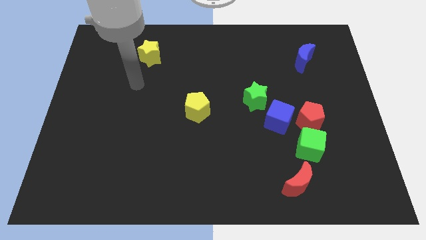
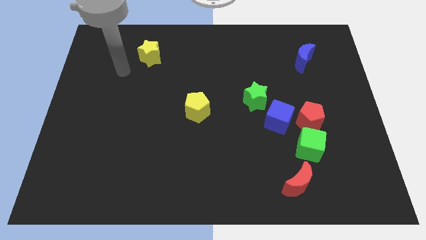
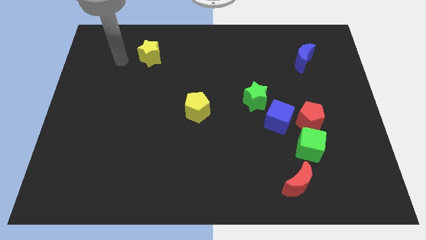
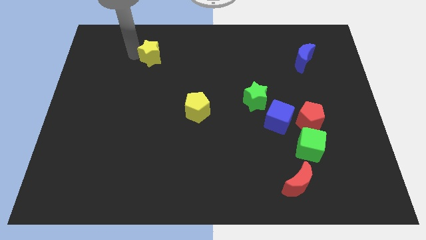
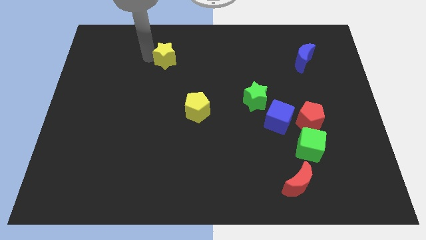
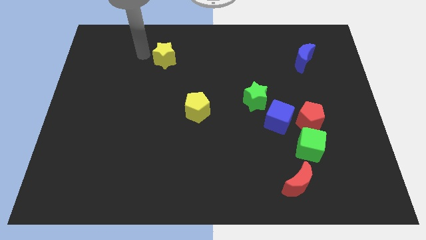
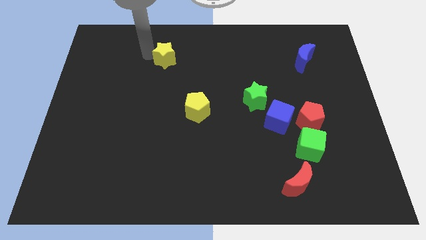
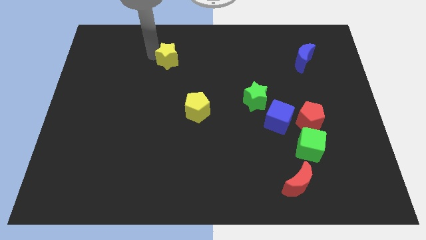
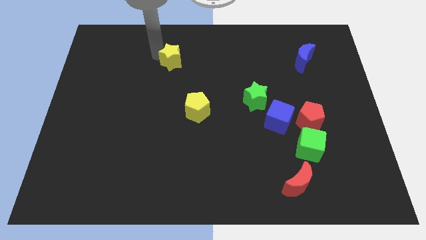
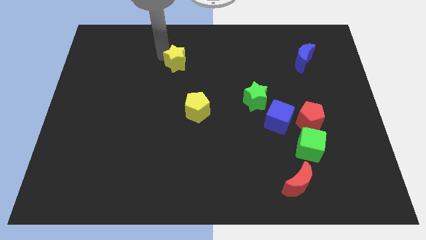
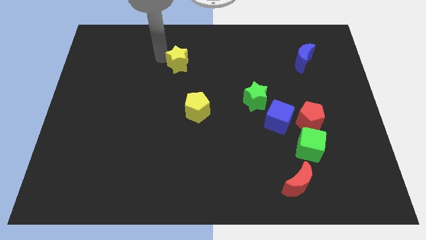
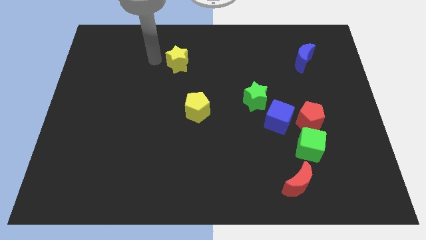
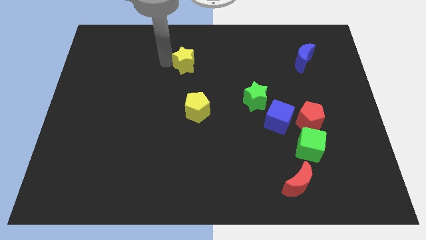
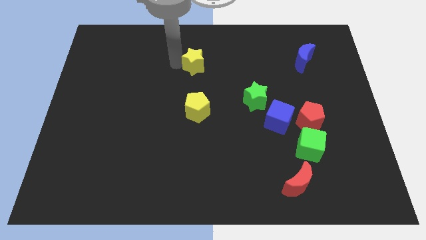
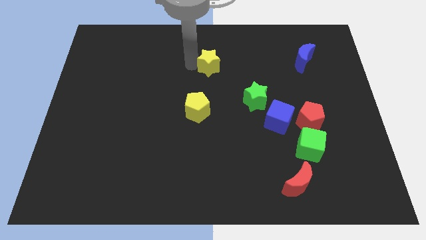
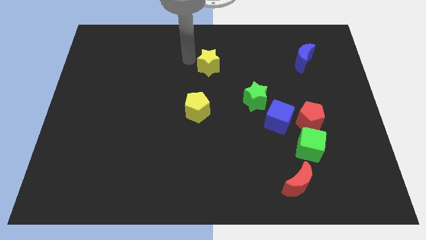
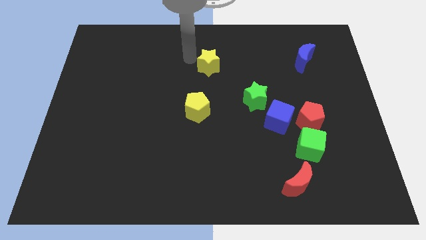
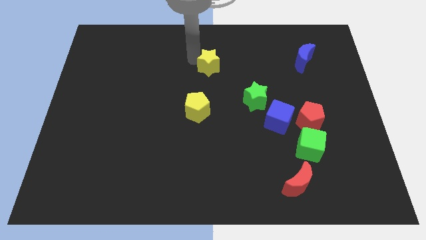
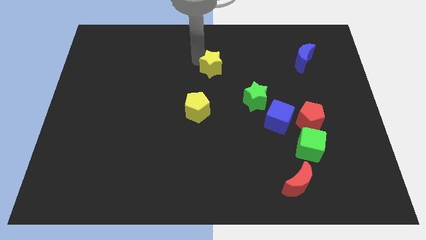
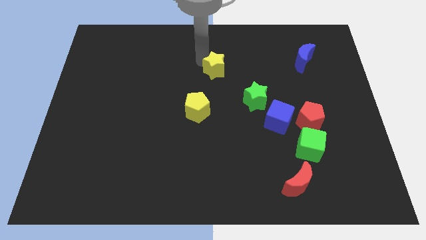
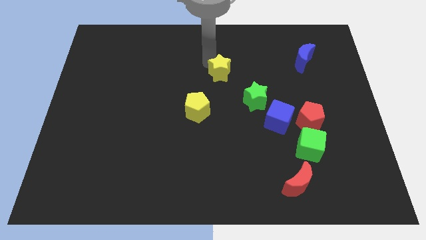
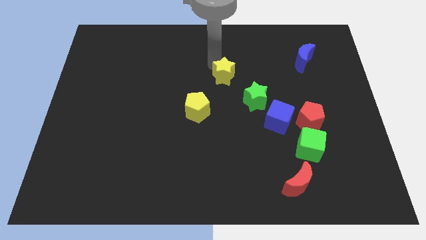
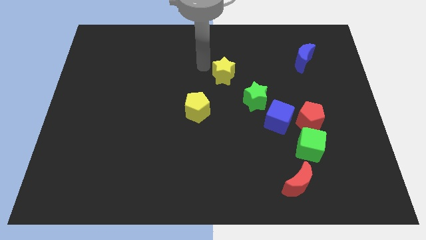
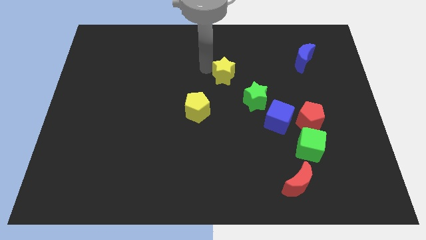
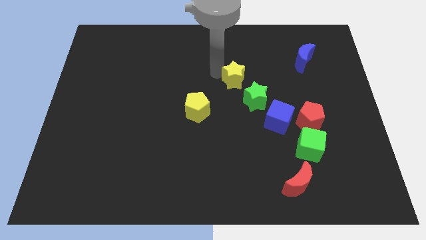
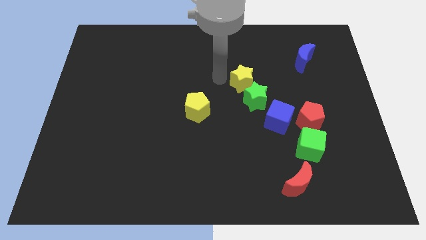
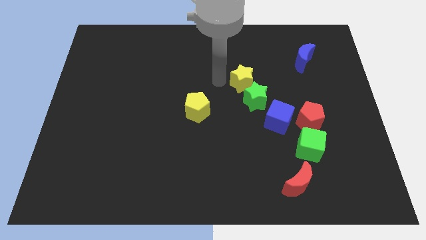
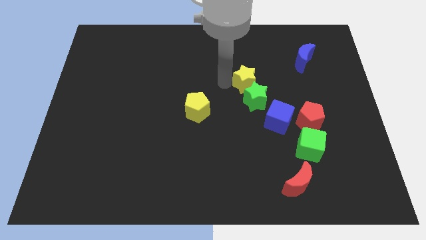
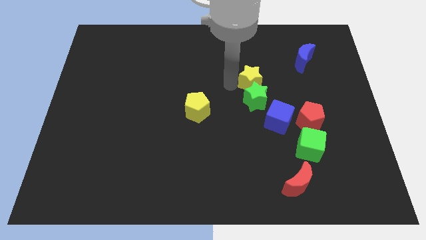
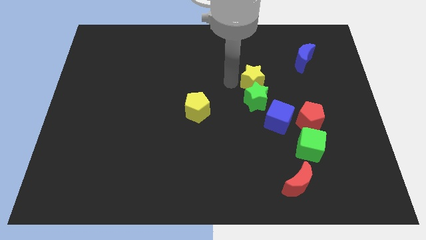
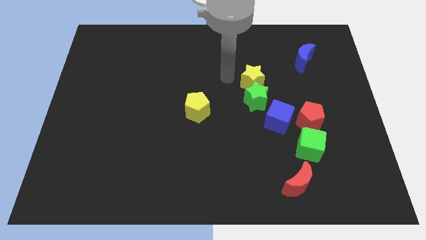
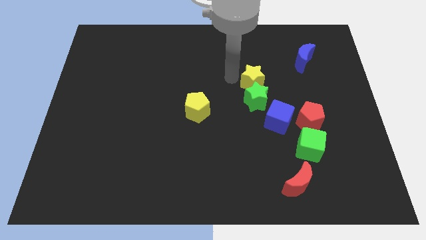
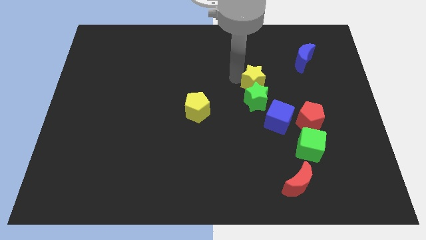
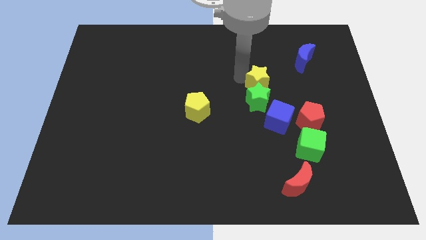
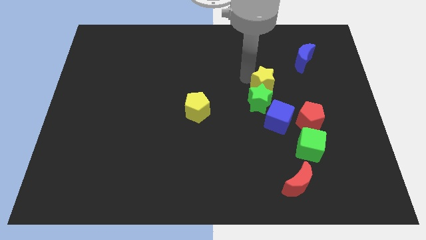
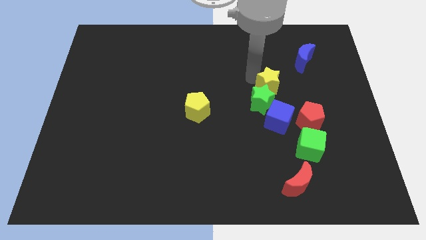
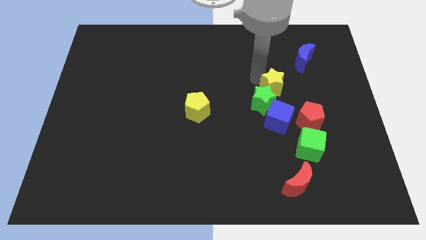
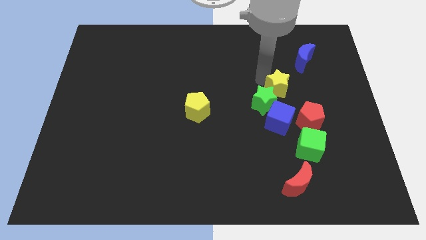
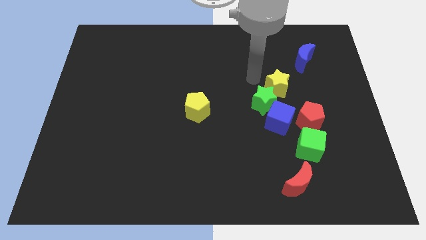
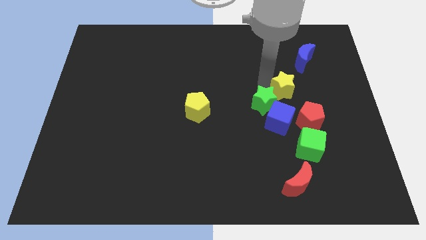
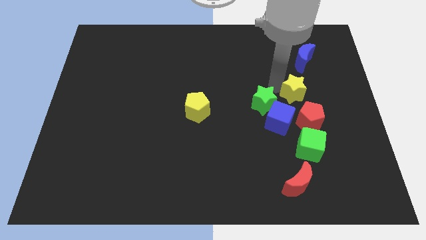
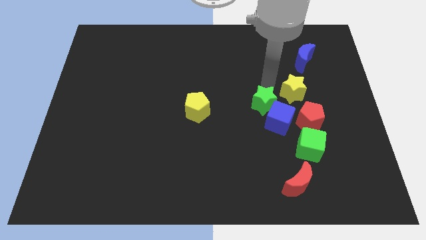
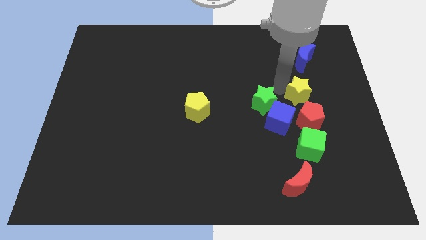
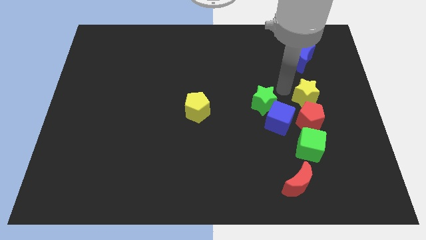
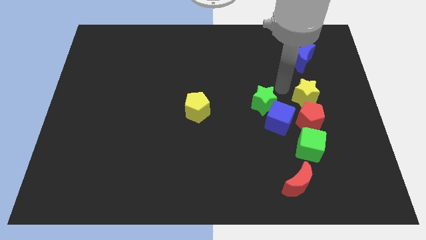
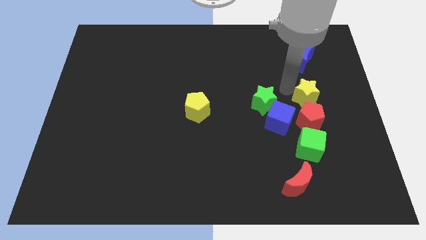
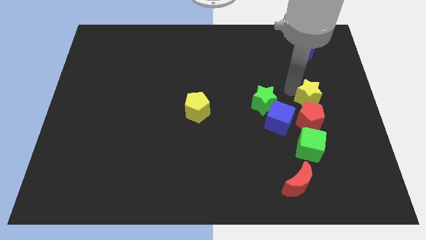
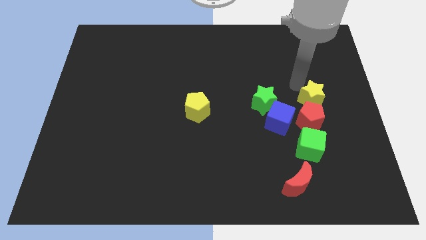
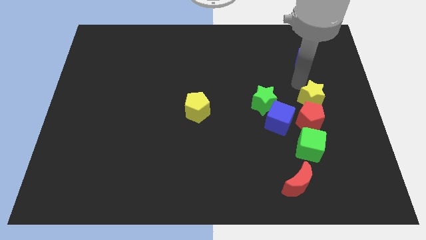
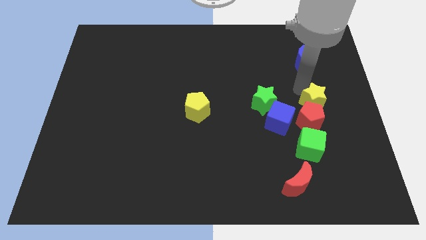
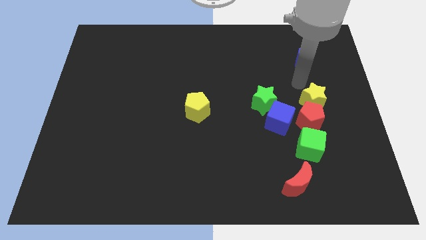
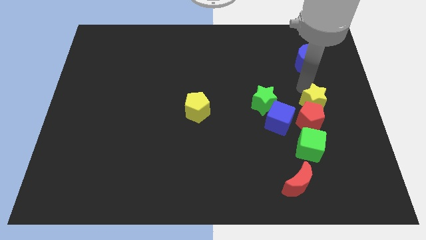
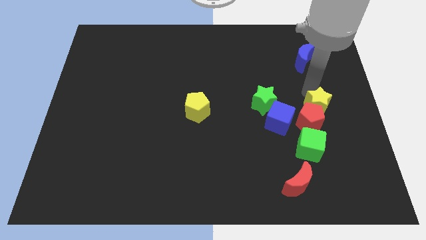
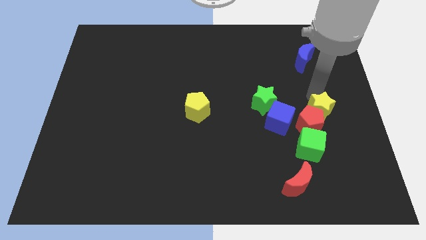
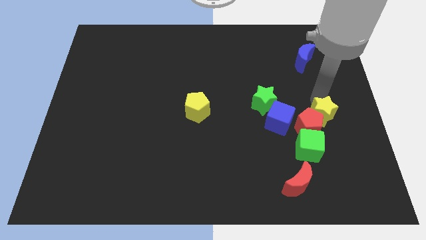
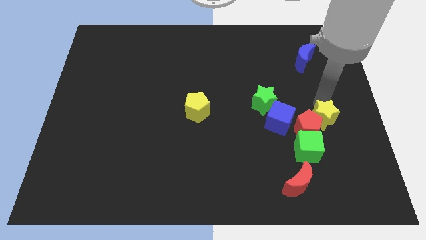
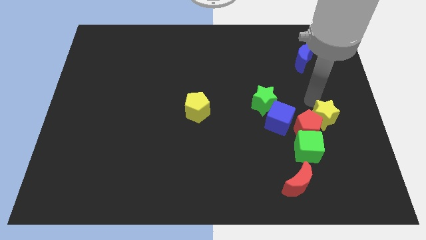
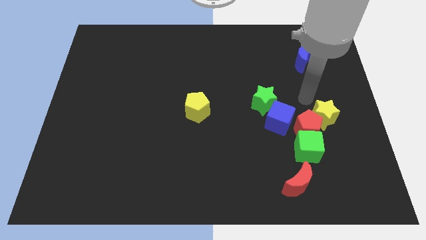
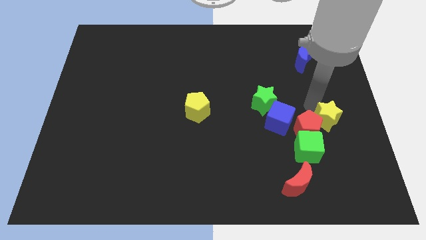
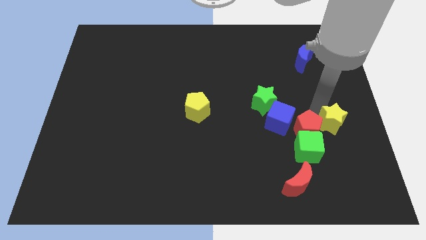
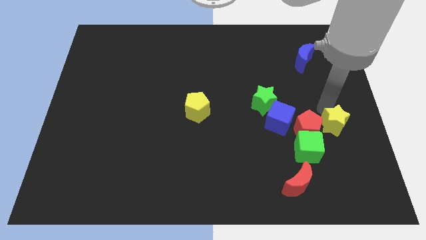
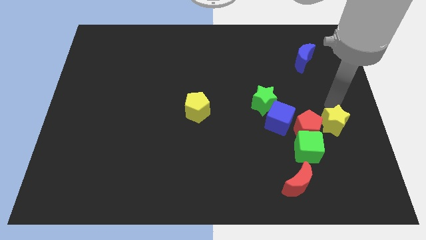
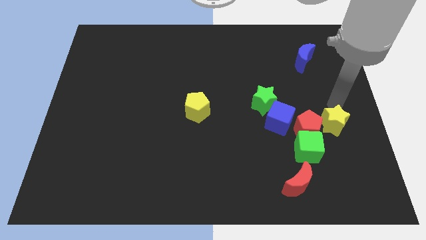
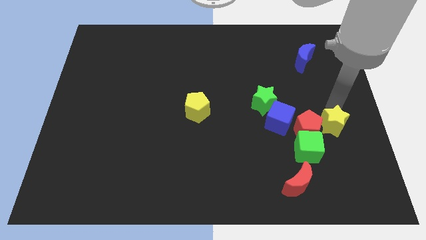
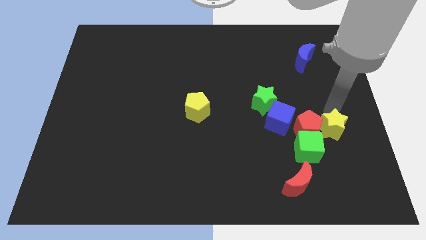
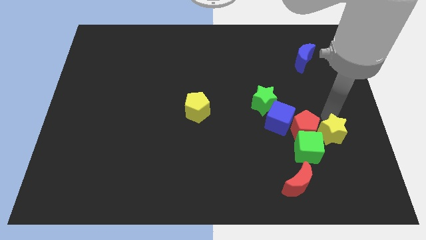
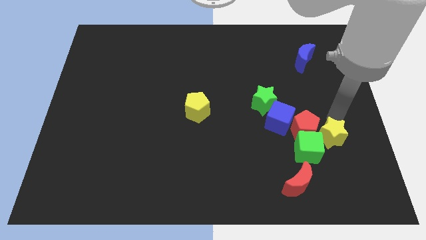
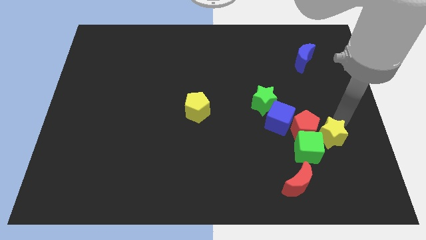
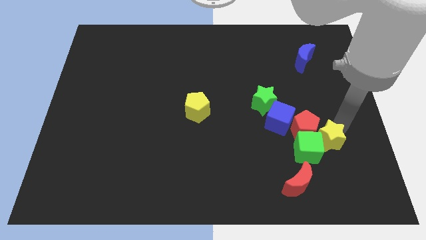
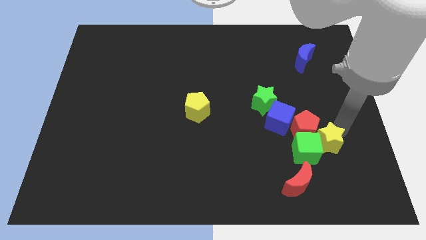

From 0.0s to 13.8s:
move the yellow star below the red pentagon

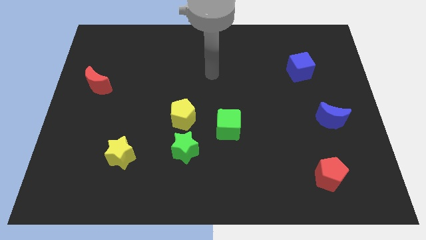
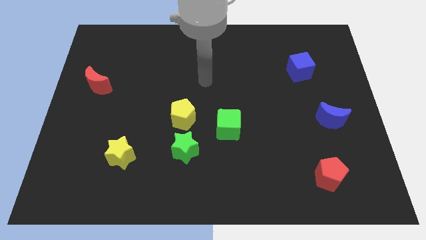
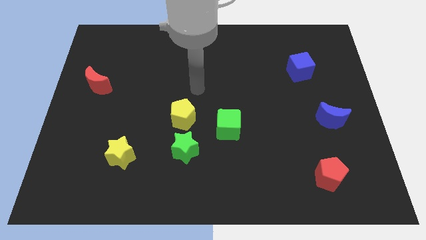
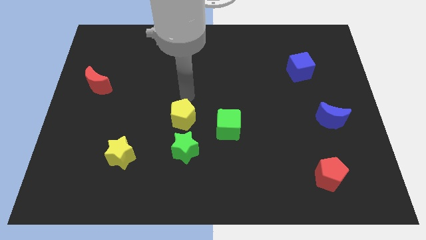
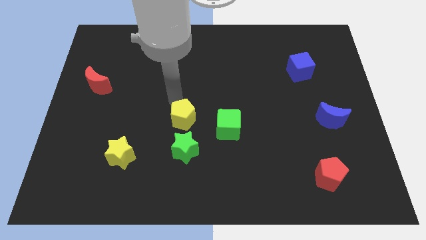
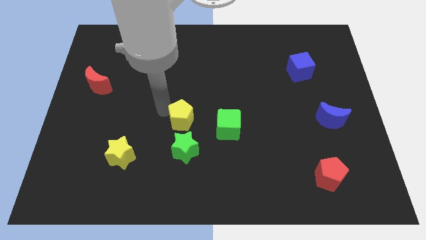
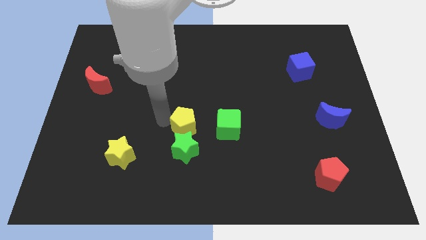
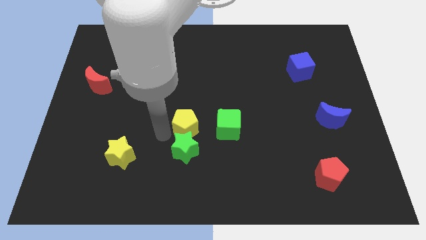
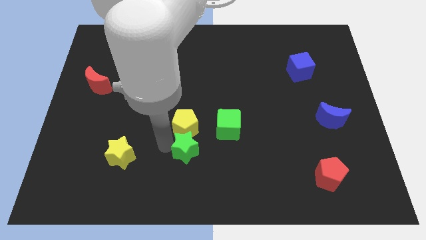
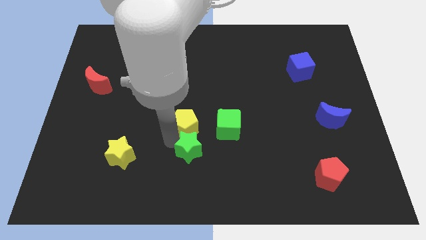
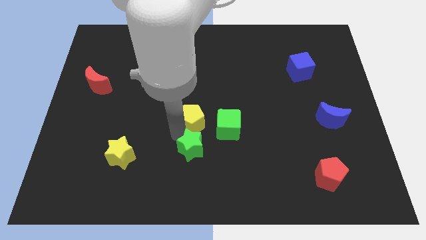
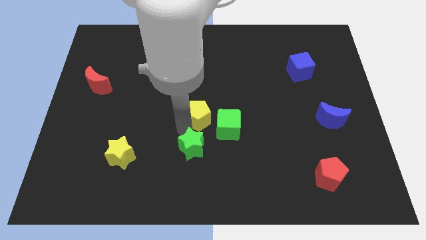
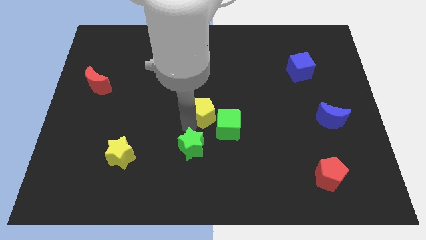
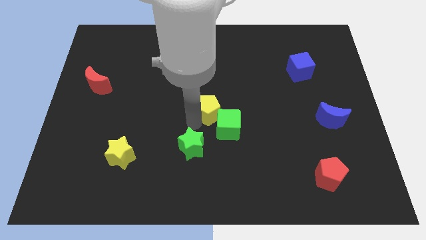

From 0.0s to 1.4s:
put the yellow pentagon above the green cube
